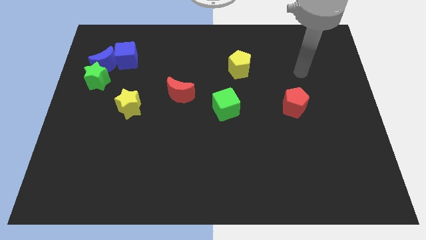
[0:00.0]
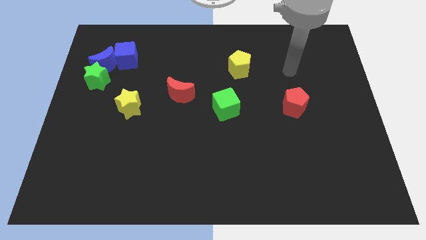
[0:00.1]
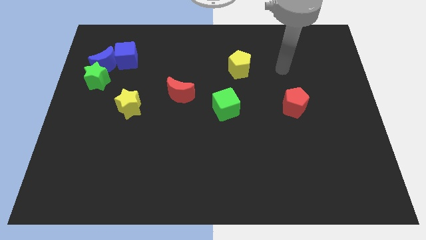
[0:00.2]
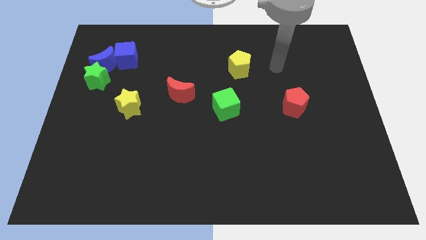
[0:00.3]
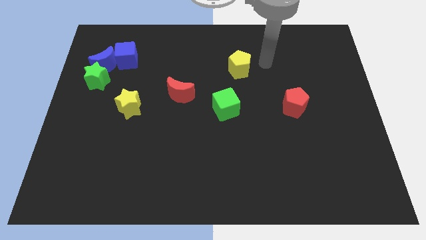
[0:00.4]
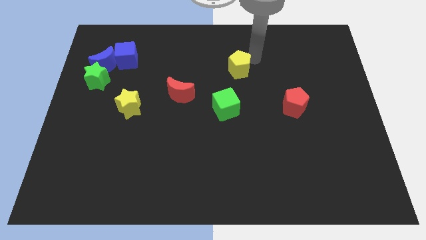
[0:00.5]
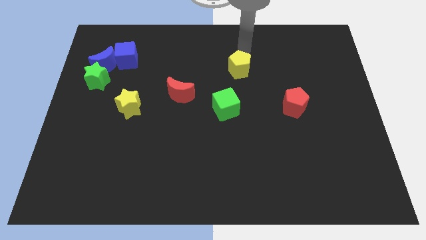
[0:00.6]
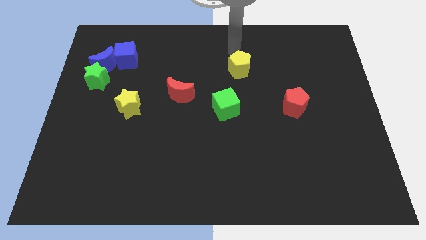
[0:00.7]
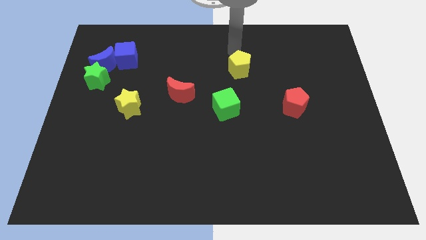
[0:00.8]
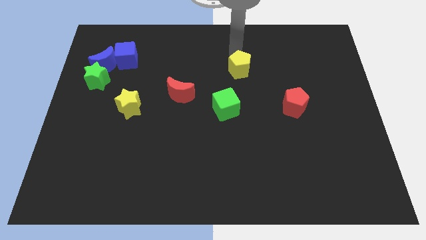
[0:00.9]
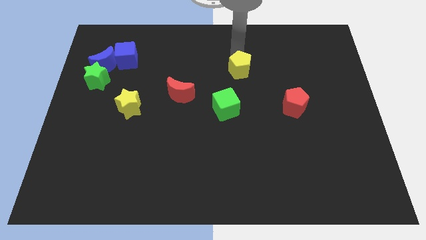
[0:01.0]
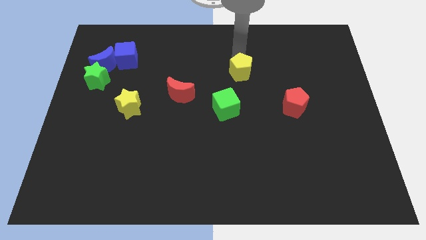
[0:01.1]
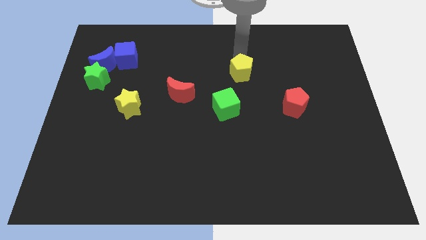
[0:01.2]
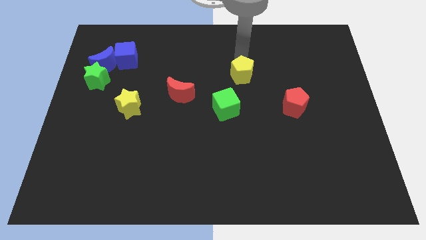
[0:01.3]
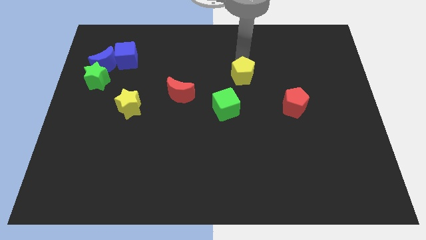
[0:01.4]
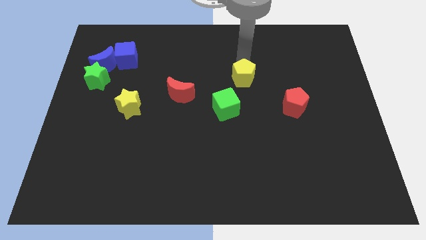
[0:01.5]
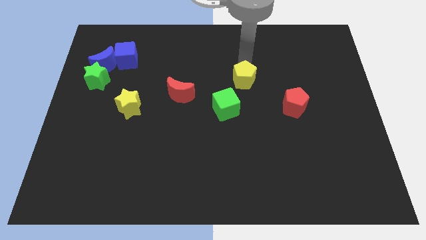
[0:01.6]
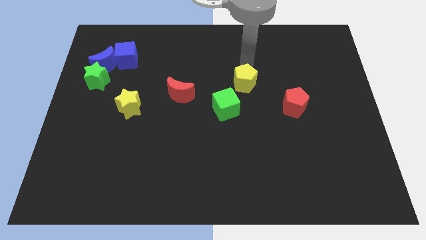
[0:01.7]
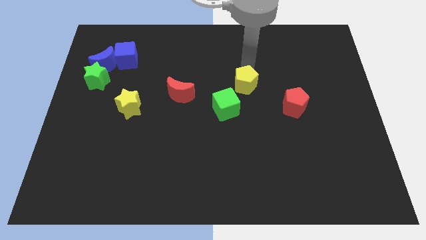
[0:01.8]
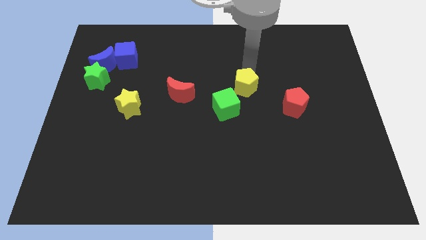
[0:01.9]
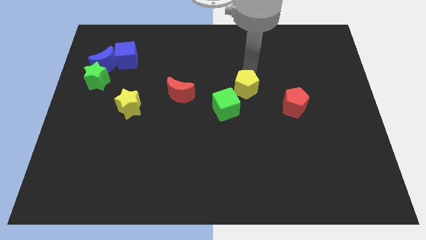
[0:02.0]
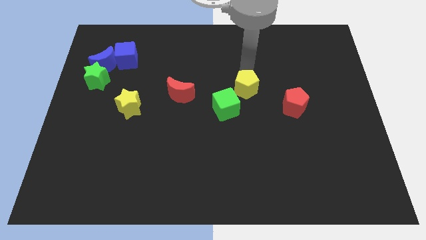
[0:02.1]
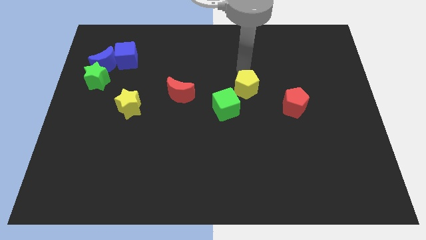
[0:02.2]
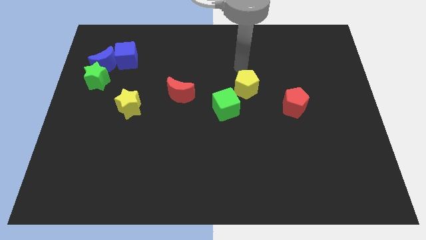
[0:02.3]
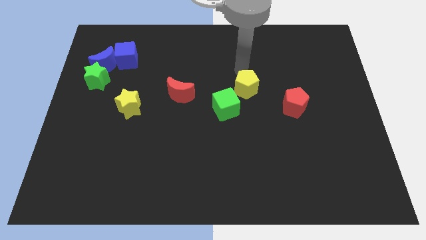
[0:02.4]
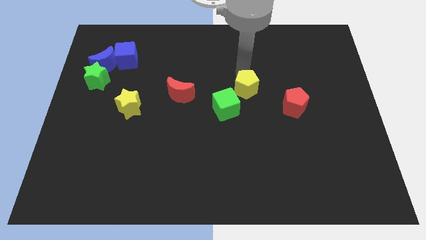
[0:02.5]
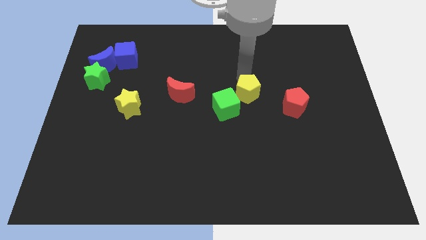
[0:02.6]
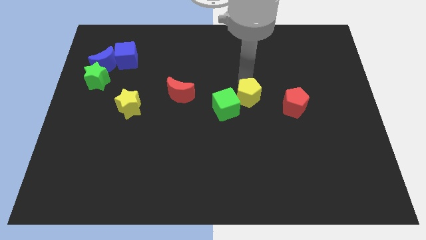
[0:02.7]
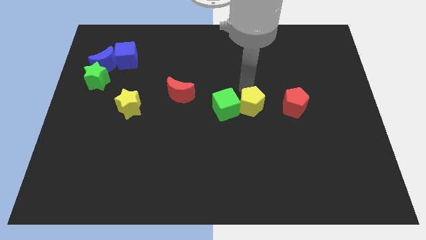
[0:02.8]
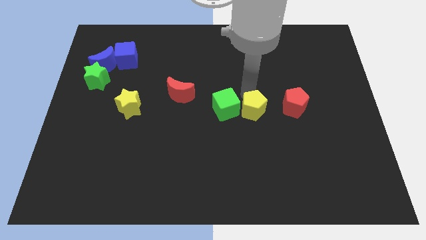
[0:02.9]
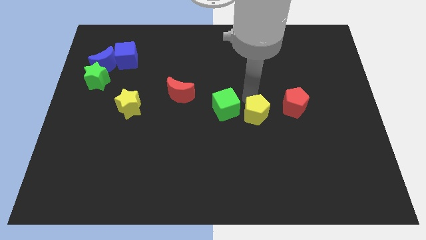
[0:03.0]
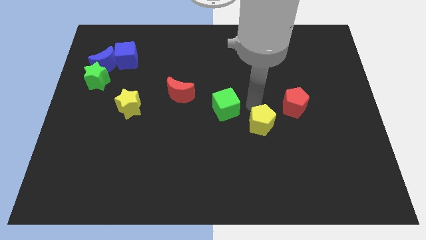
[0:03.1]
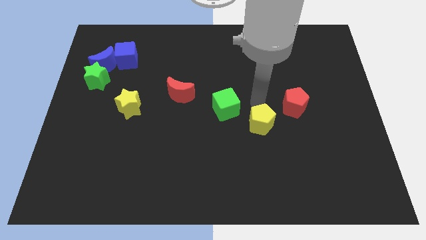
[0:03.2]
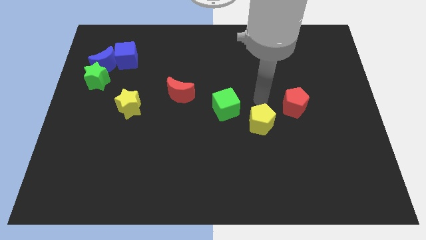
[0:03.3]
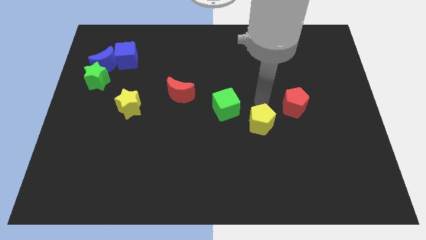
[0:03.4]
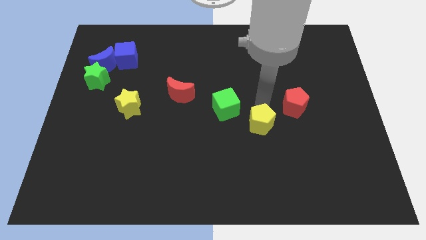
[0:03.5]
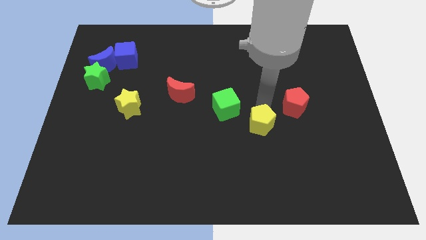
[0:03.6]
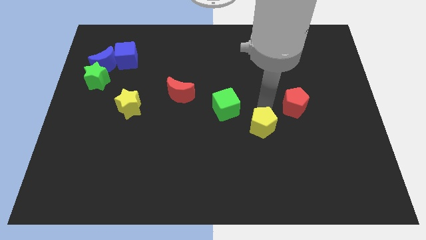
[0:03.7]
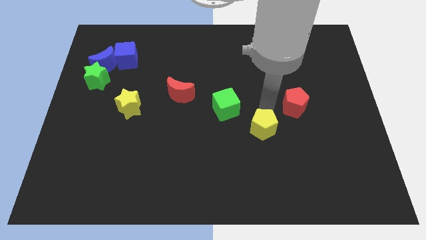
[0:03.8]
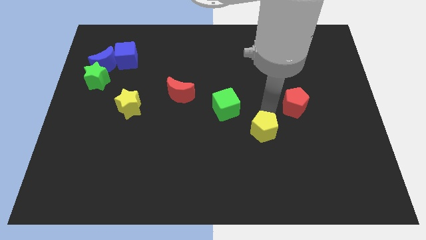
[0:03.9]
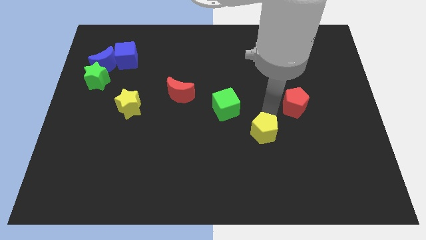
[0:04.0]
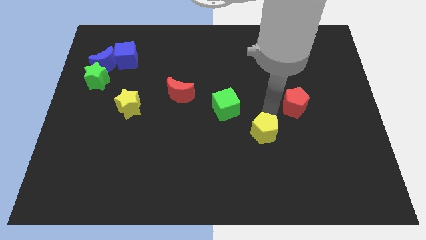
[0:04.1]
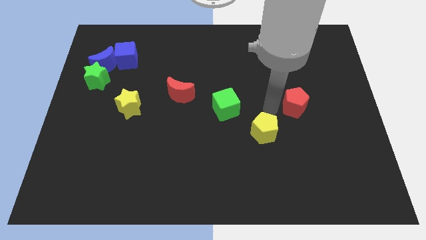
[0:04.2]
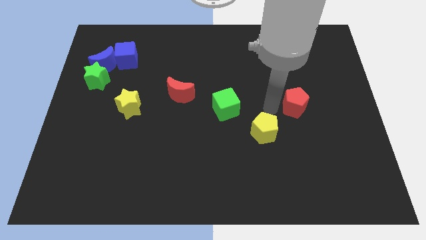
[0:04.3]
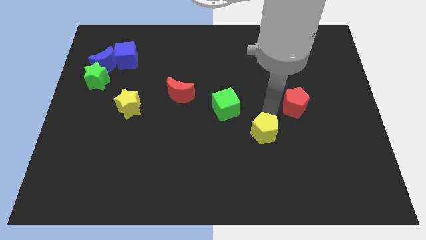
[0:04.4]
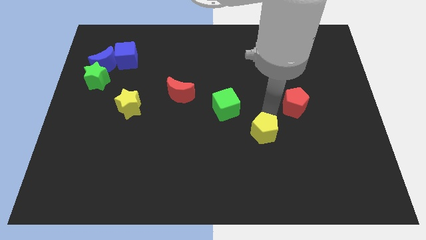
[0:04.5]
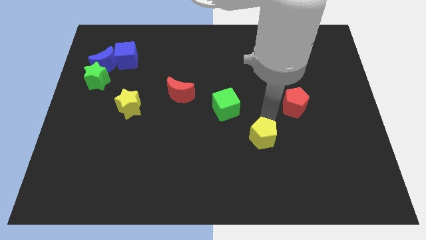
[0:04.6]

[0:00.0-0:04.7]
slide the yellow pentagon down

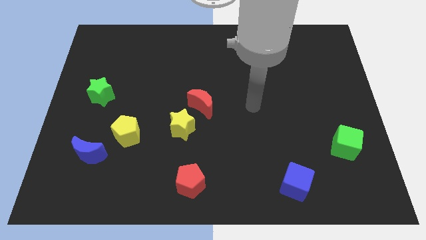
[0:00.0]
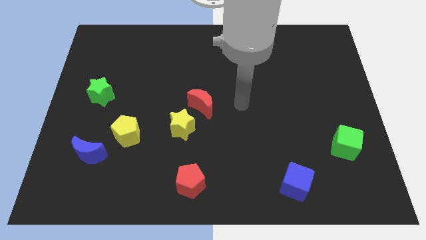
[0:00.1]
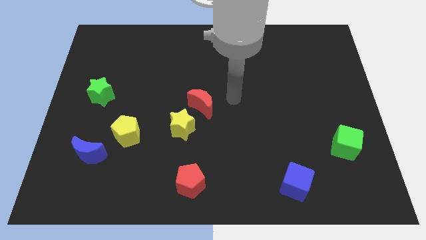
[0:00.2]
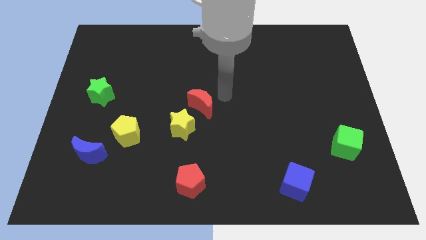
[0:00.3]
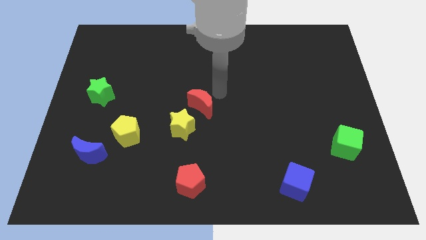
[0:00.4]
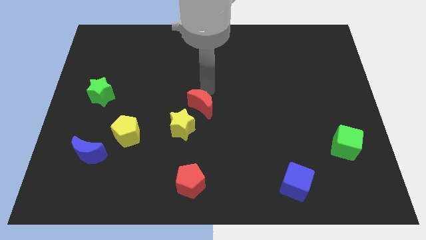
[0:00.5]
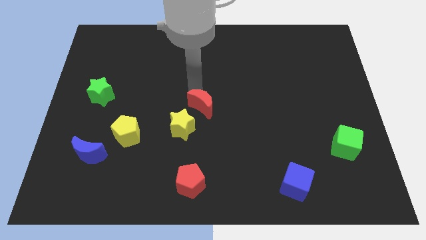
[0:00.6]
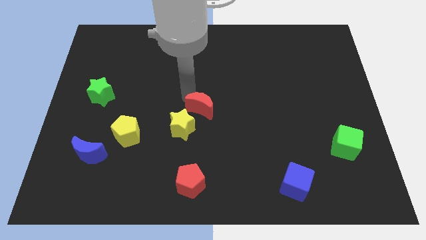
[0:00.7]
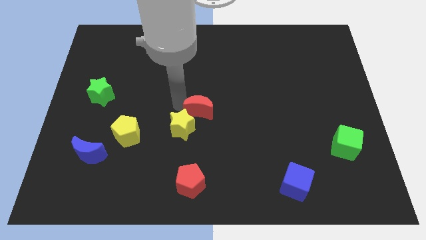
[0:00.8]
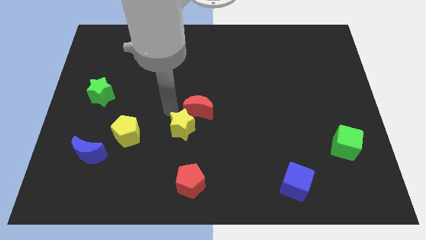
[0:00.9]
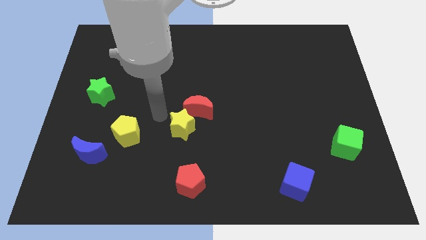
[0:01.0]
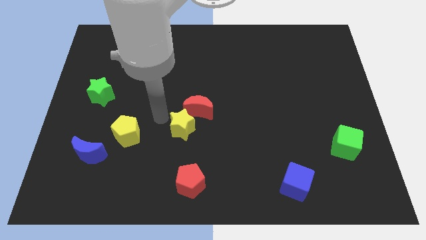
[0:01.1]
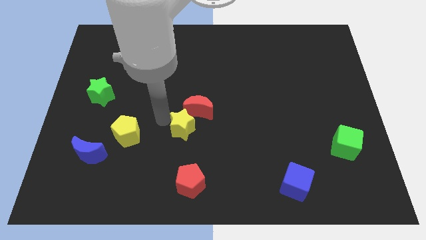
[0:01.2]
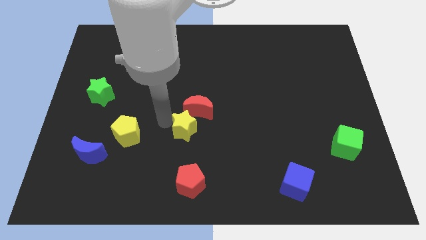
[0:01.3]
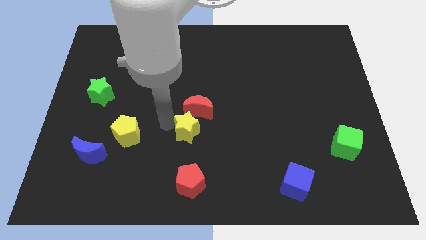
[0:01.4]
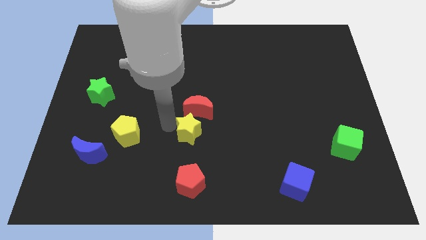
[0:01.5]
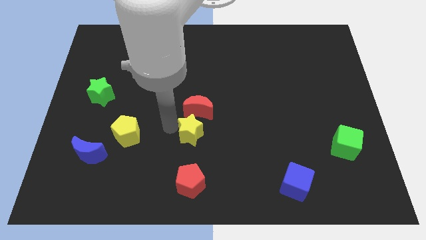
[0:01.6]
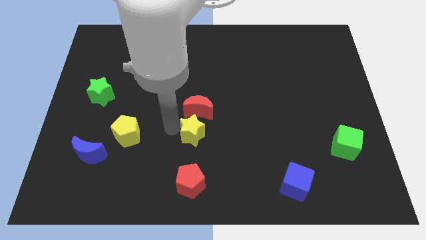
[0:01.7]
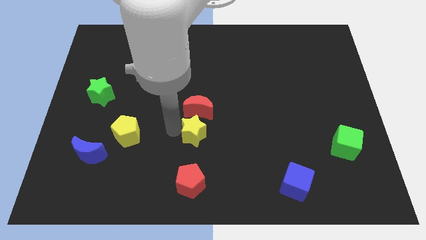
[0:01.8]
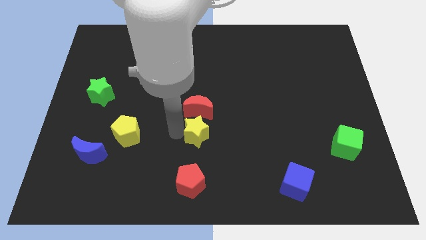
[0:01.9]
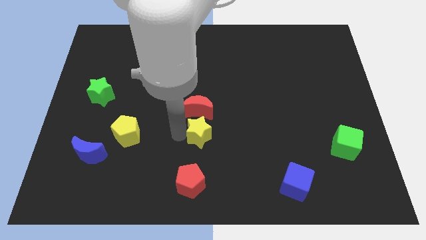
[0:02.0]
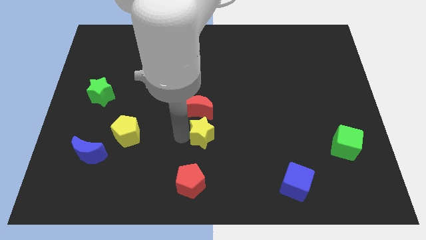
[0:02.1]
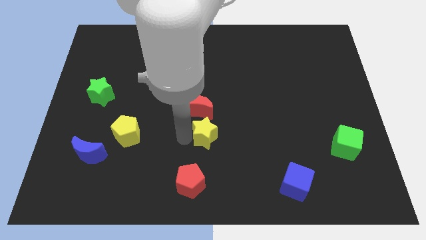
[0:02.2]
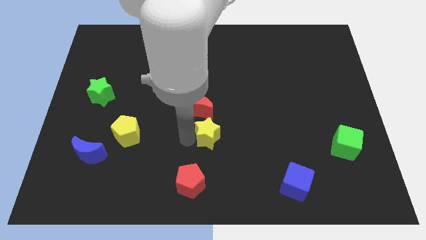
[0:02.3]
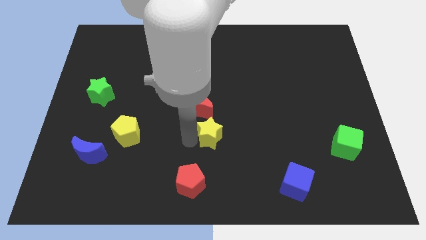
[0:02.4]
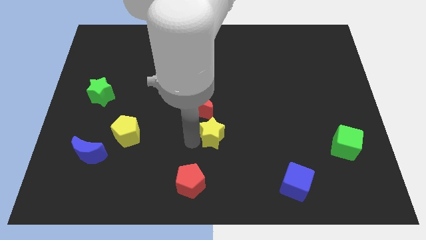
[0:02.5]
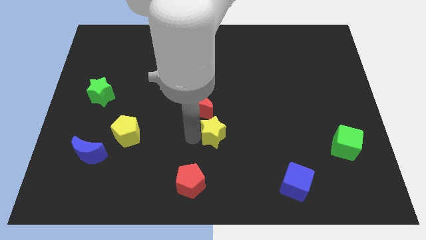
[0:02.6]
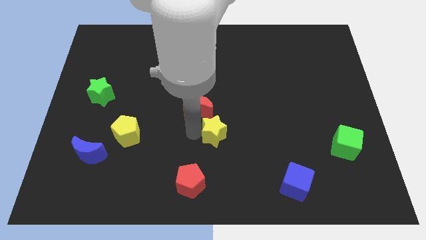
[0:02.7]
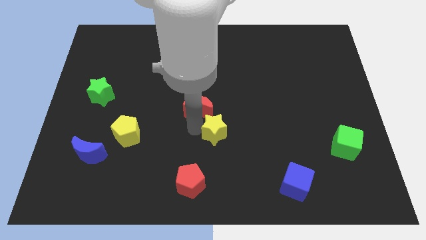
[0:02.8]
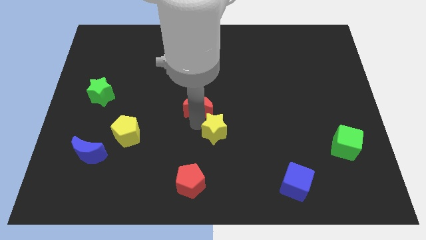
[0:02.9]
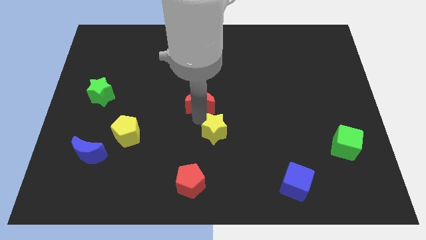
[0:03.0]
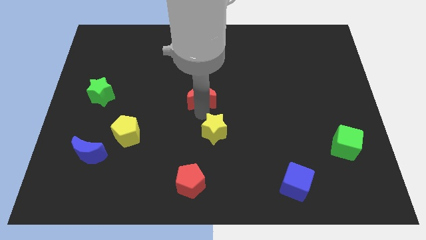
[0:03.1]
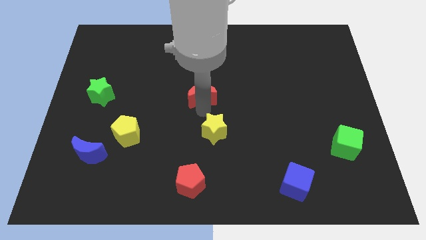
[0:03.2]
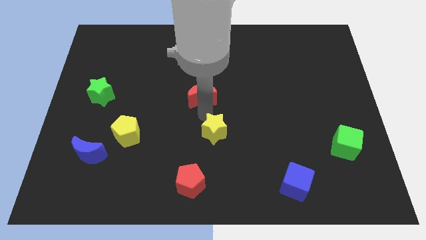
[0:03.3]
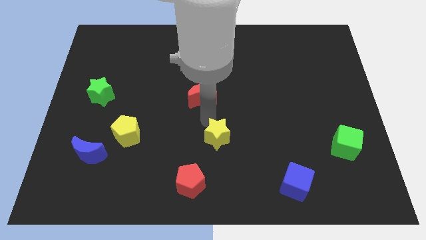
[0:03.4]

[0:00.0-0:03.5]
push the yellow star down and right diagonally a little
